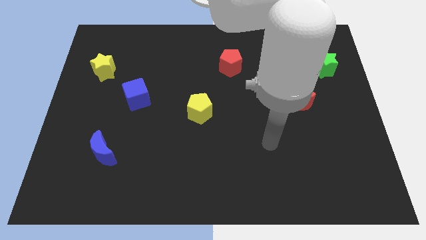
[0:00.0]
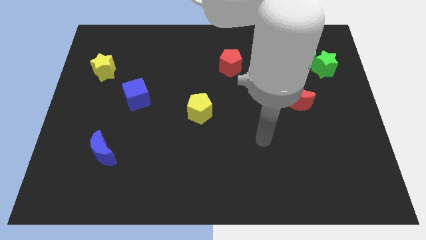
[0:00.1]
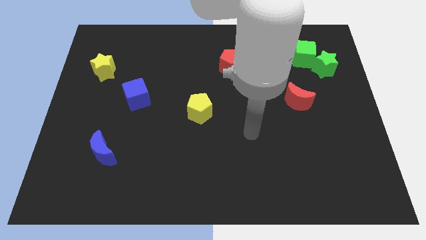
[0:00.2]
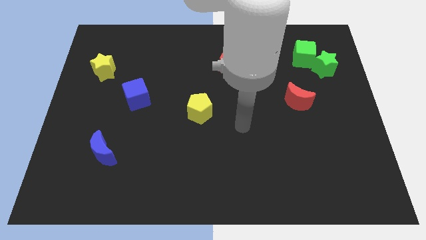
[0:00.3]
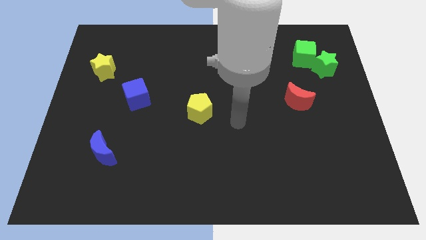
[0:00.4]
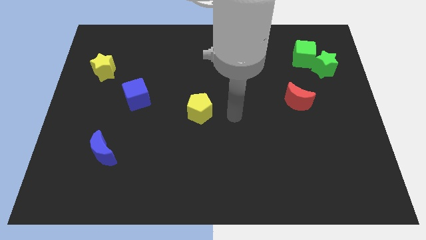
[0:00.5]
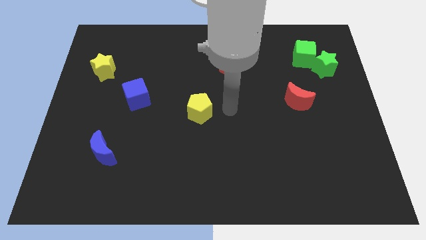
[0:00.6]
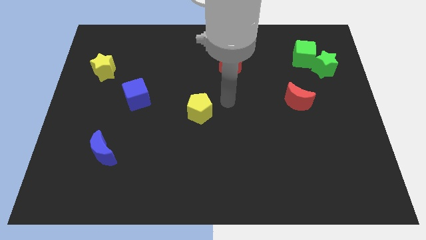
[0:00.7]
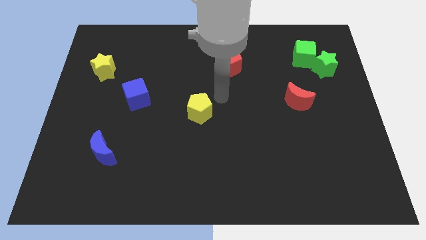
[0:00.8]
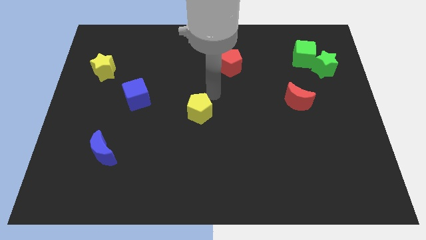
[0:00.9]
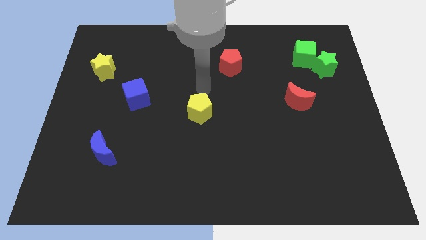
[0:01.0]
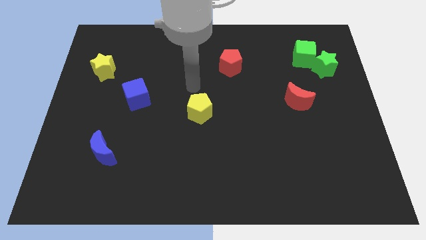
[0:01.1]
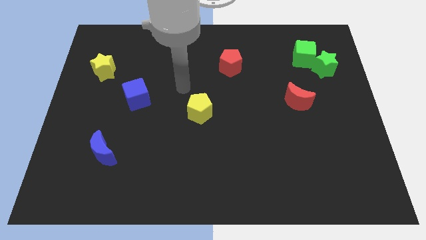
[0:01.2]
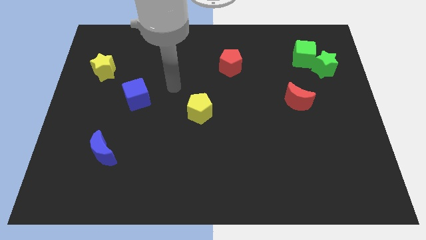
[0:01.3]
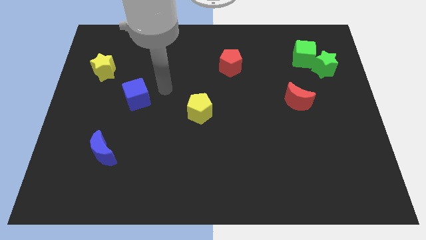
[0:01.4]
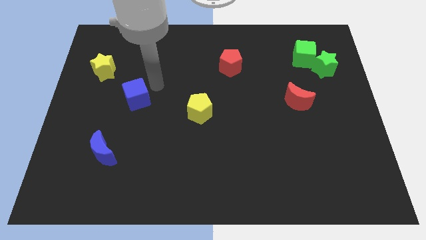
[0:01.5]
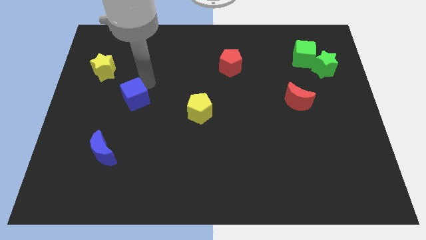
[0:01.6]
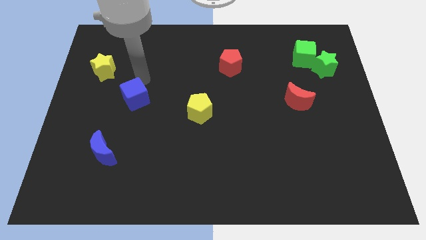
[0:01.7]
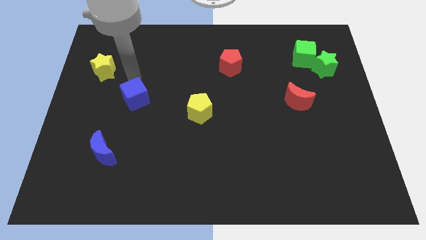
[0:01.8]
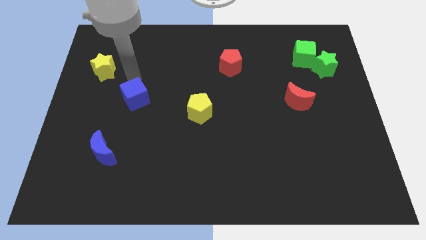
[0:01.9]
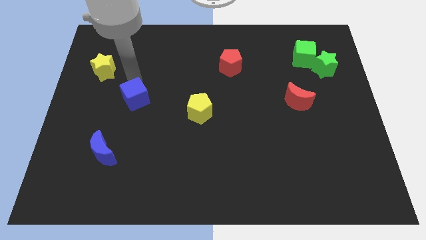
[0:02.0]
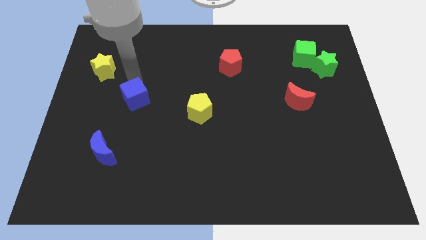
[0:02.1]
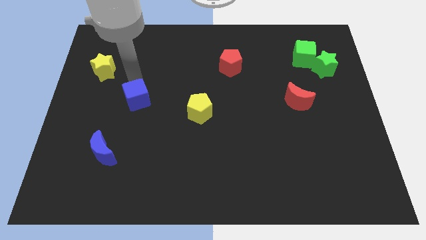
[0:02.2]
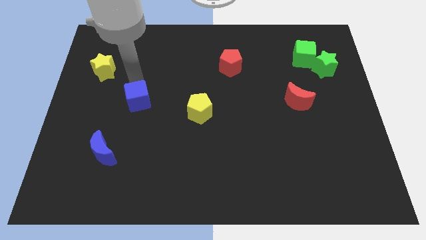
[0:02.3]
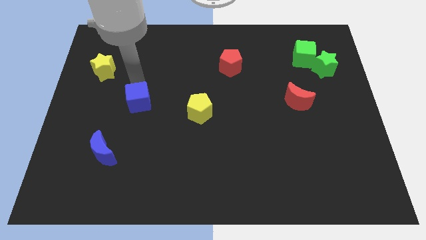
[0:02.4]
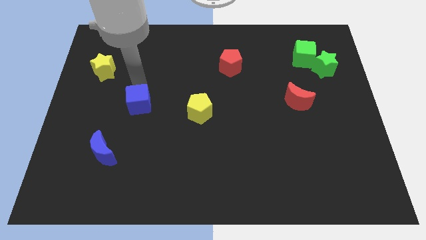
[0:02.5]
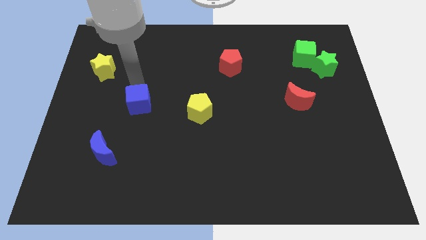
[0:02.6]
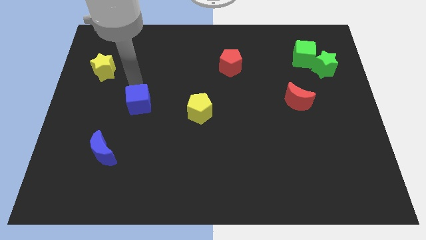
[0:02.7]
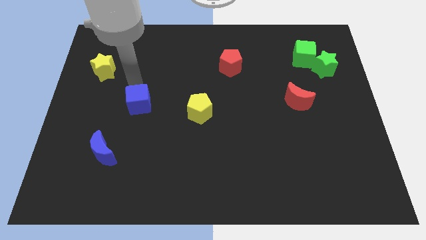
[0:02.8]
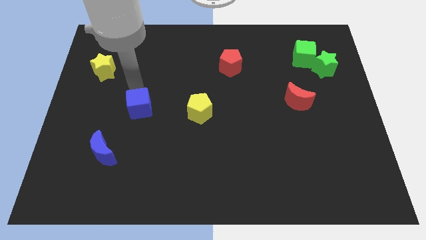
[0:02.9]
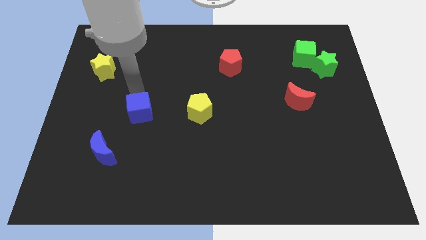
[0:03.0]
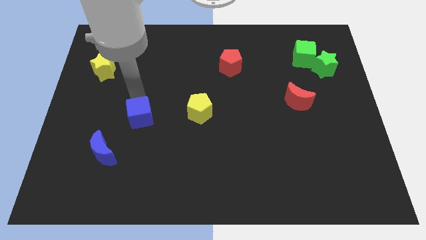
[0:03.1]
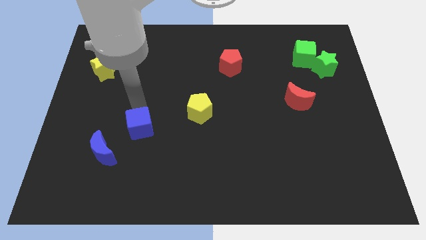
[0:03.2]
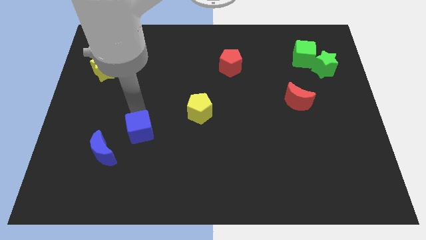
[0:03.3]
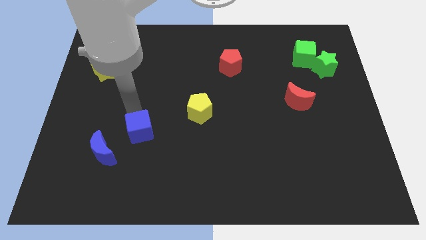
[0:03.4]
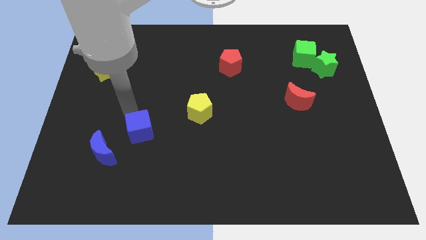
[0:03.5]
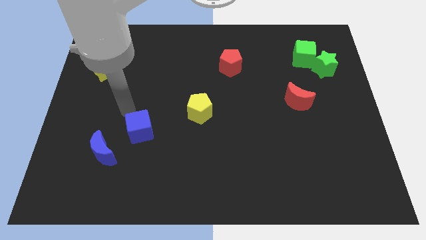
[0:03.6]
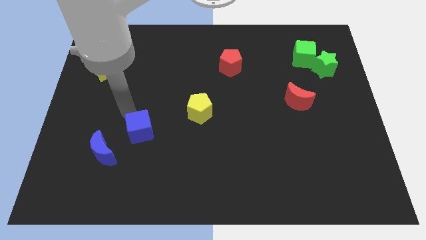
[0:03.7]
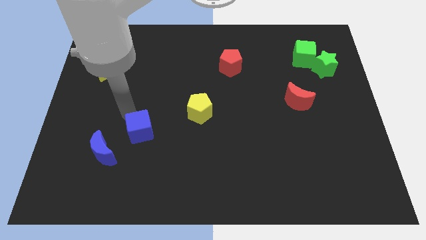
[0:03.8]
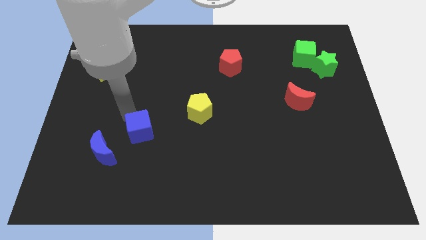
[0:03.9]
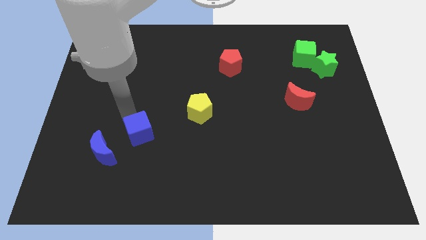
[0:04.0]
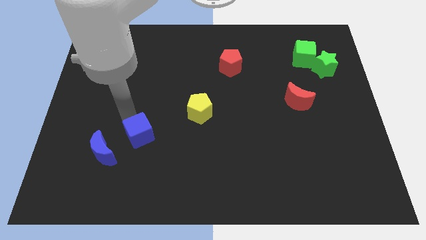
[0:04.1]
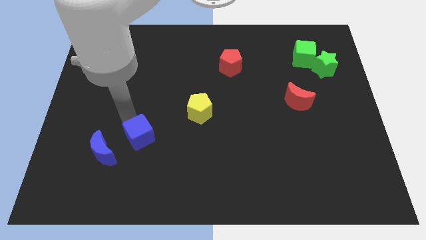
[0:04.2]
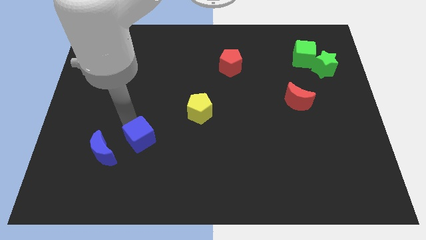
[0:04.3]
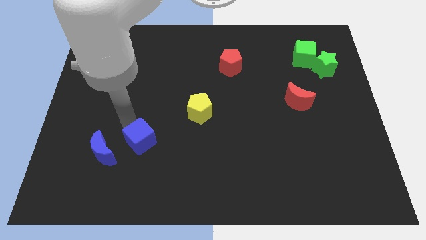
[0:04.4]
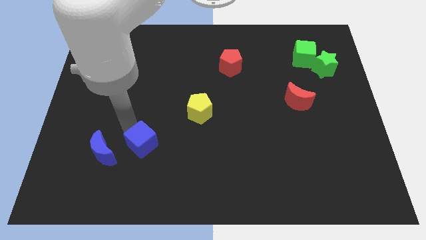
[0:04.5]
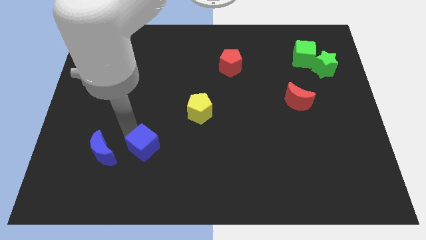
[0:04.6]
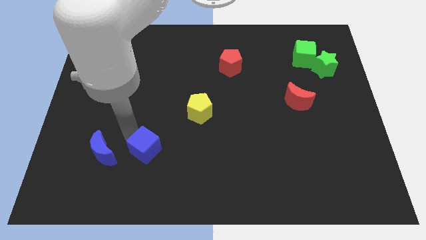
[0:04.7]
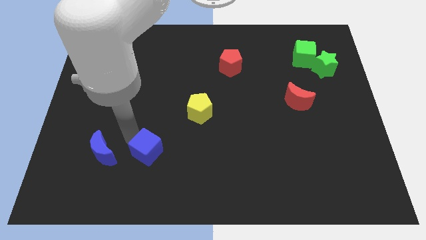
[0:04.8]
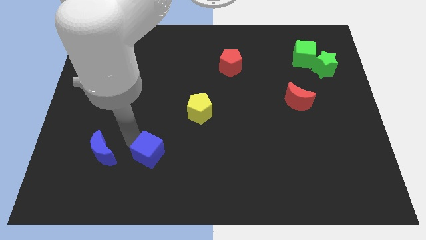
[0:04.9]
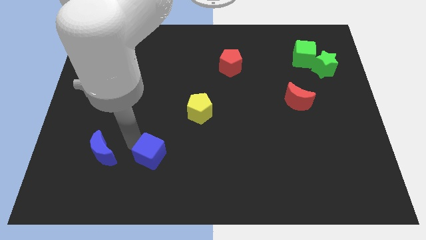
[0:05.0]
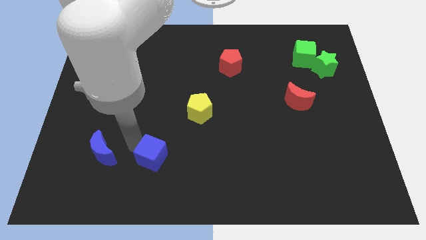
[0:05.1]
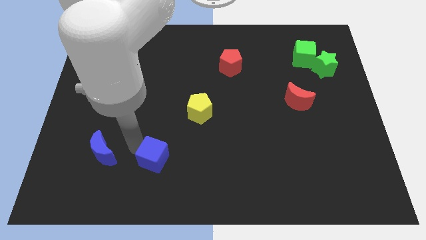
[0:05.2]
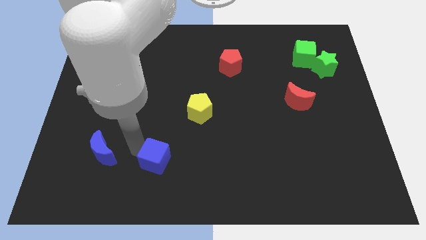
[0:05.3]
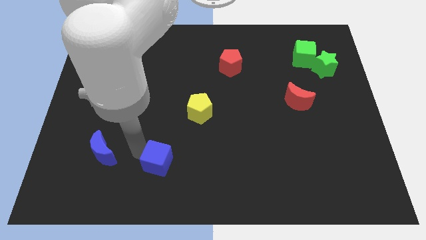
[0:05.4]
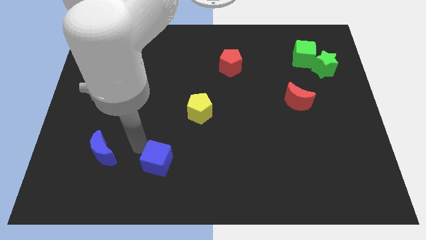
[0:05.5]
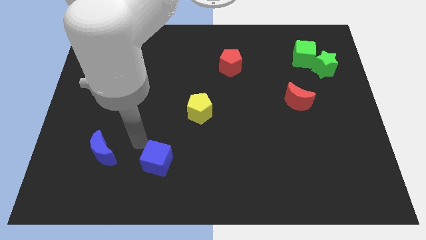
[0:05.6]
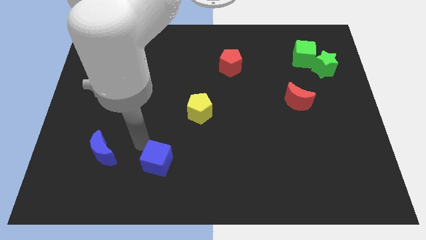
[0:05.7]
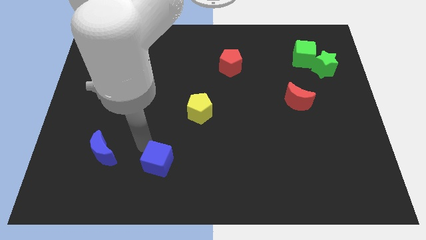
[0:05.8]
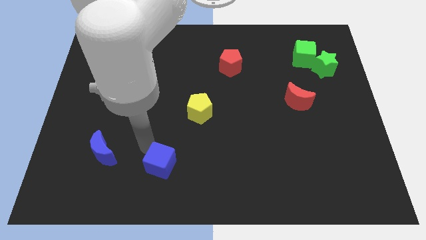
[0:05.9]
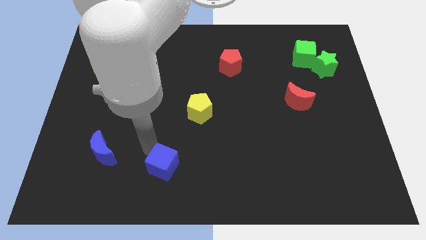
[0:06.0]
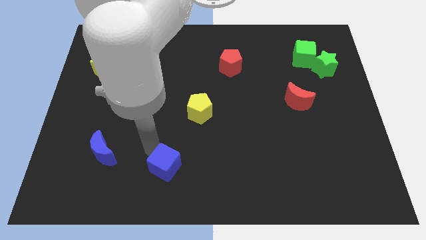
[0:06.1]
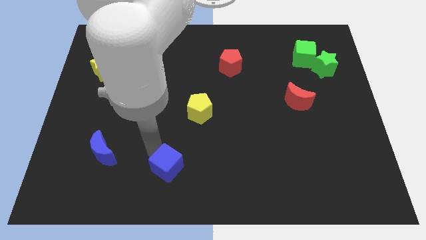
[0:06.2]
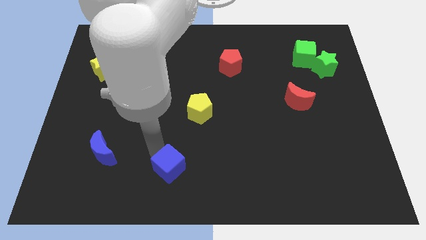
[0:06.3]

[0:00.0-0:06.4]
push the blue cube to the bottom side
